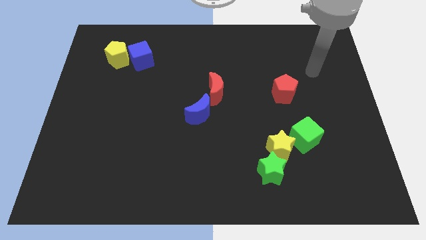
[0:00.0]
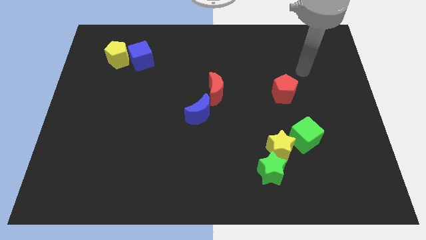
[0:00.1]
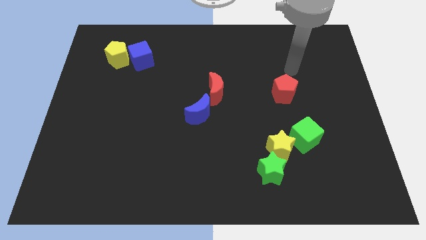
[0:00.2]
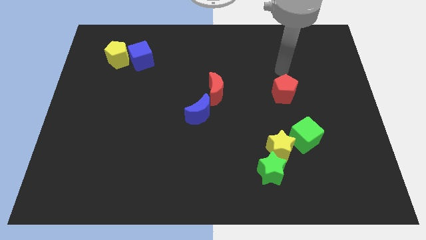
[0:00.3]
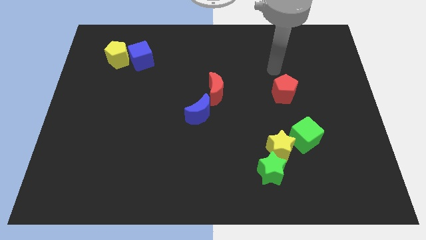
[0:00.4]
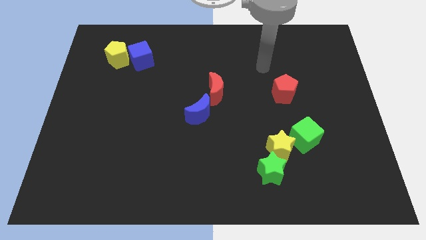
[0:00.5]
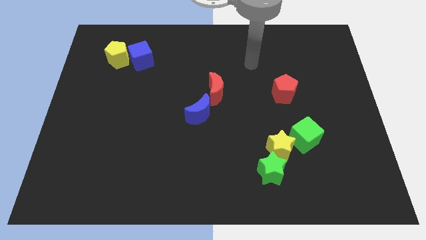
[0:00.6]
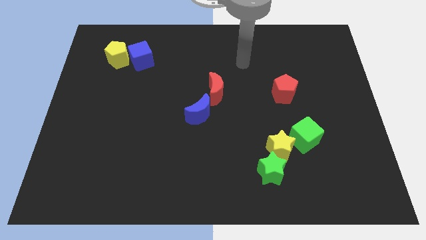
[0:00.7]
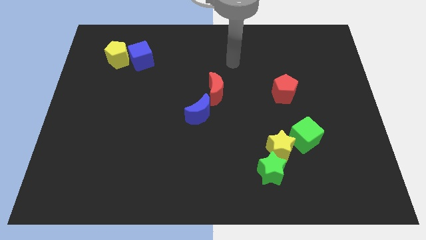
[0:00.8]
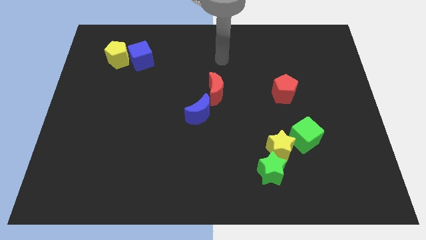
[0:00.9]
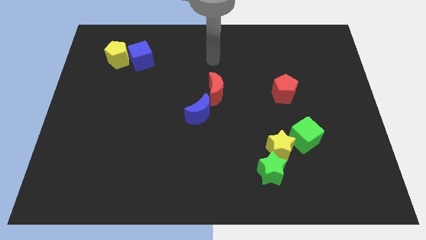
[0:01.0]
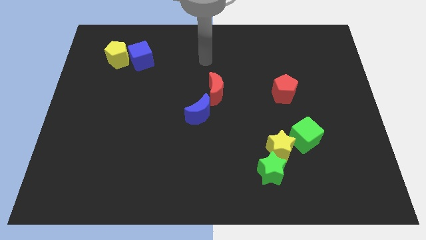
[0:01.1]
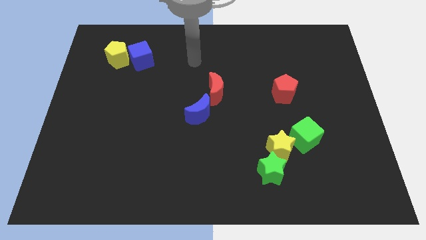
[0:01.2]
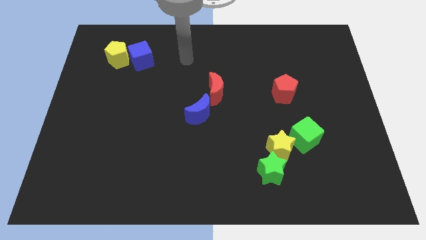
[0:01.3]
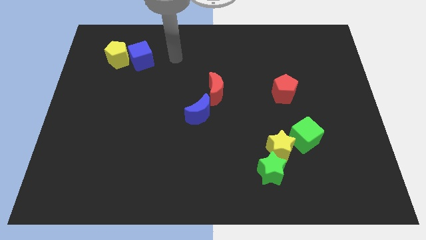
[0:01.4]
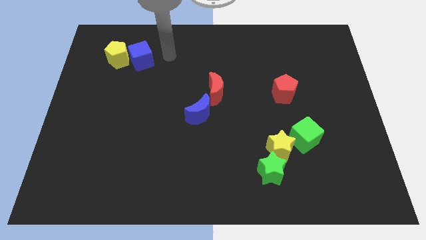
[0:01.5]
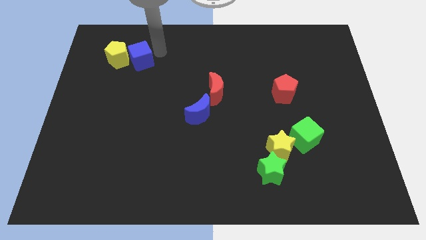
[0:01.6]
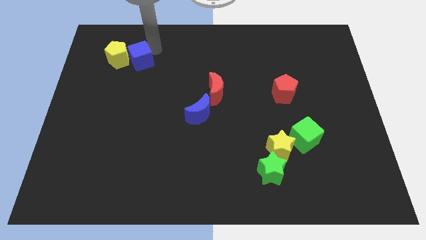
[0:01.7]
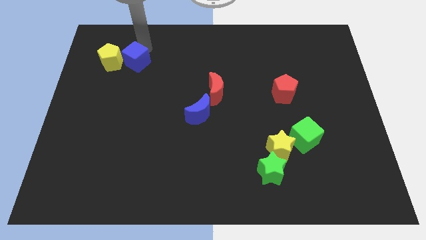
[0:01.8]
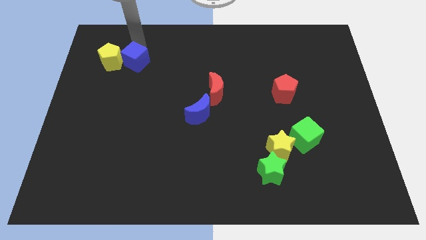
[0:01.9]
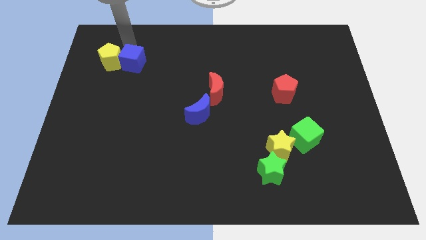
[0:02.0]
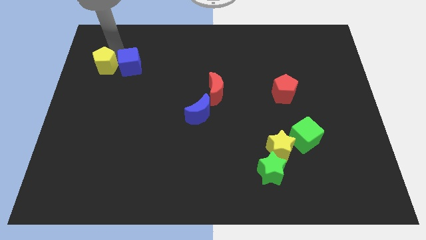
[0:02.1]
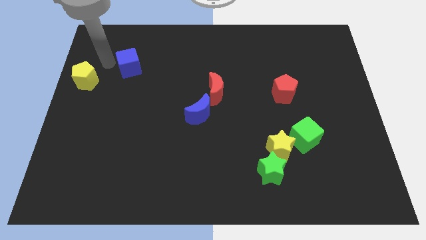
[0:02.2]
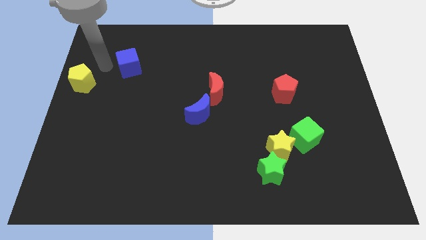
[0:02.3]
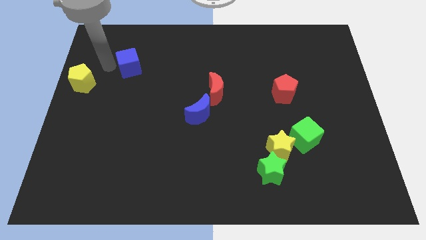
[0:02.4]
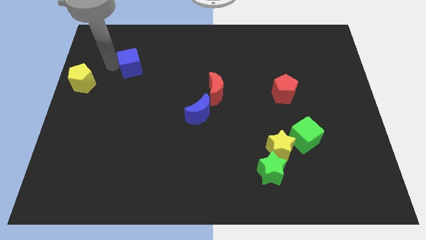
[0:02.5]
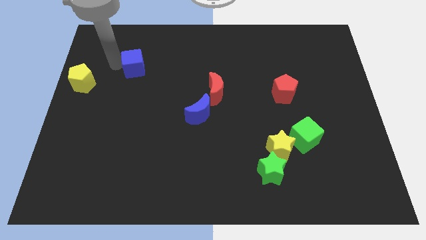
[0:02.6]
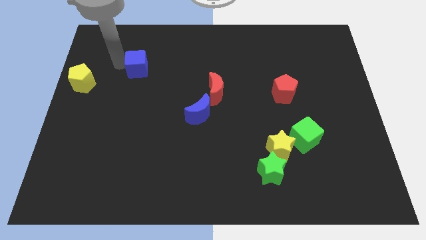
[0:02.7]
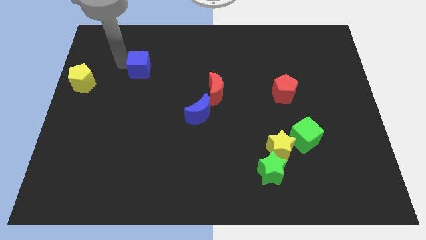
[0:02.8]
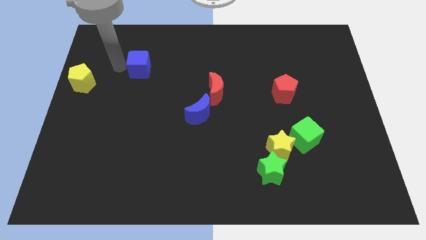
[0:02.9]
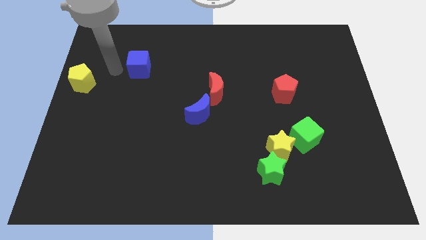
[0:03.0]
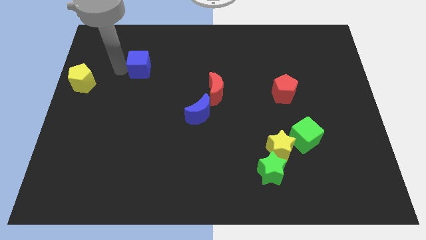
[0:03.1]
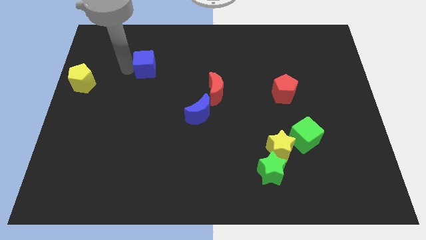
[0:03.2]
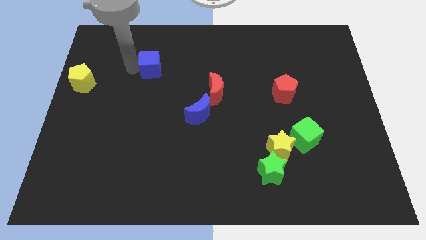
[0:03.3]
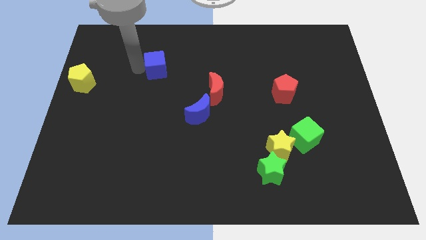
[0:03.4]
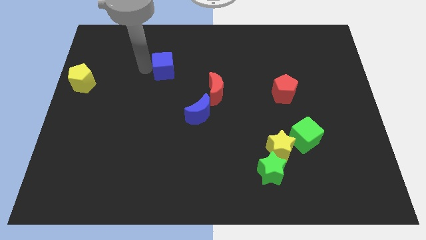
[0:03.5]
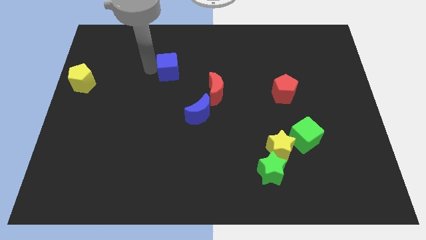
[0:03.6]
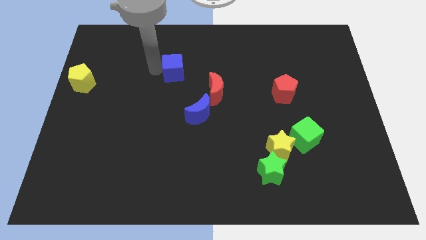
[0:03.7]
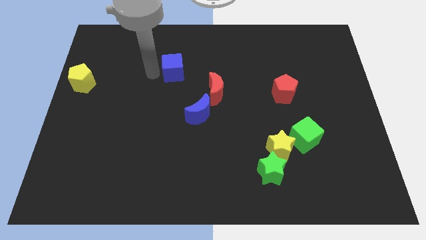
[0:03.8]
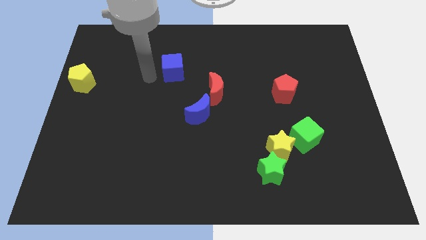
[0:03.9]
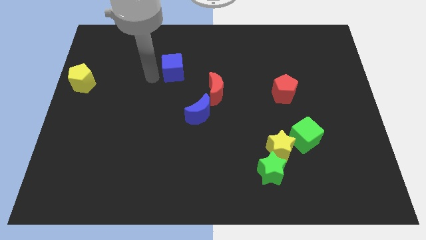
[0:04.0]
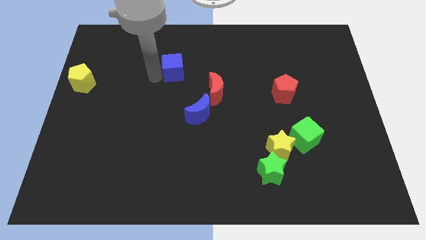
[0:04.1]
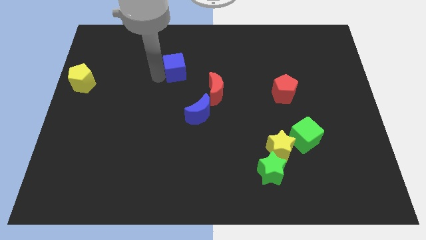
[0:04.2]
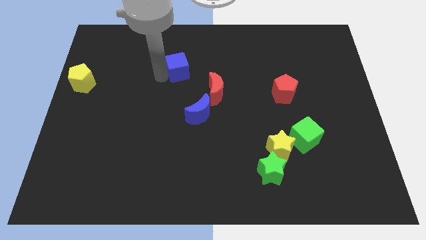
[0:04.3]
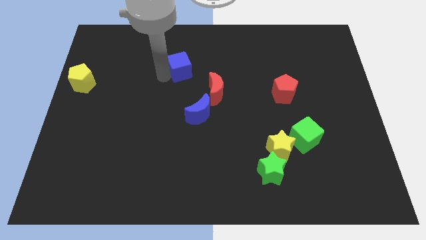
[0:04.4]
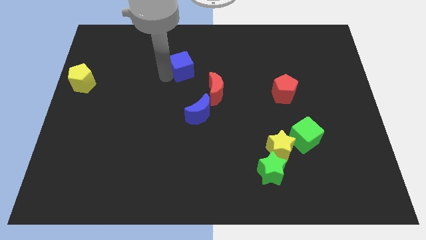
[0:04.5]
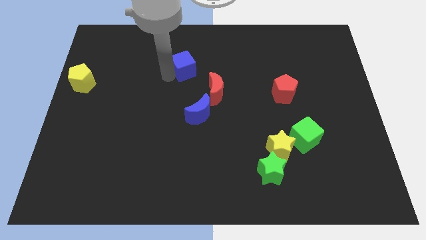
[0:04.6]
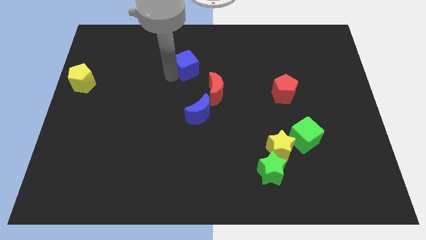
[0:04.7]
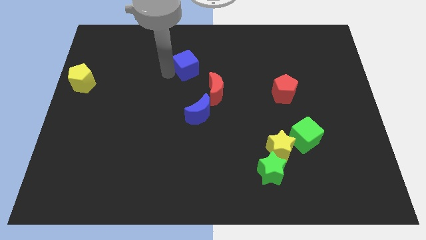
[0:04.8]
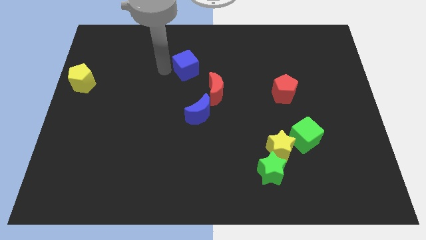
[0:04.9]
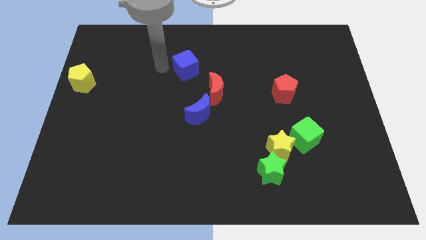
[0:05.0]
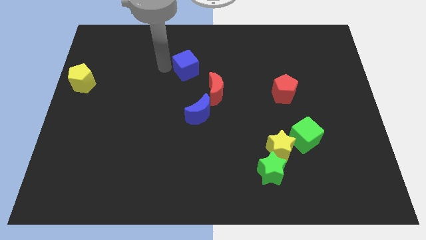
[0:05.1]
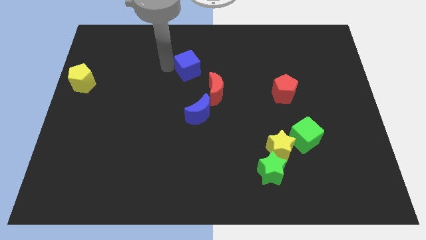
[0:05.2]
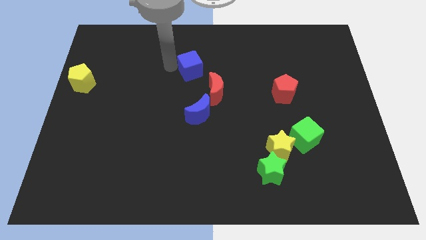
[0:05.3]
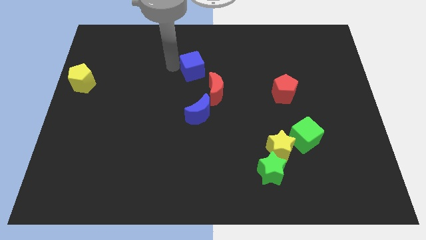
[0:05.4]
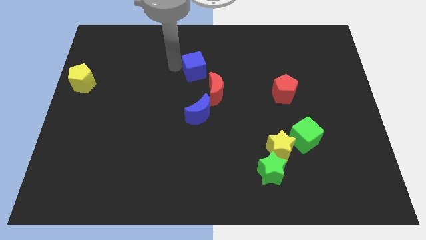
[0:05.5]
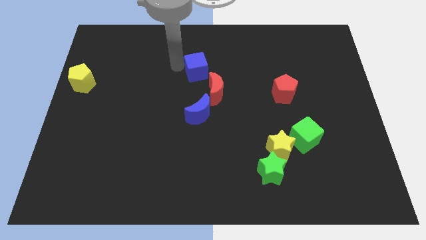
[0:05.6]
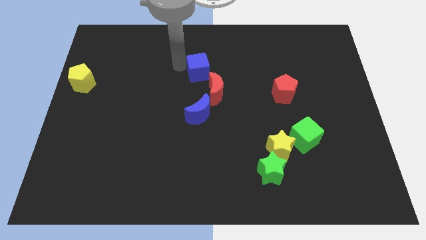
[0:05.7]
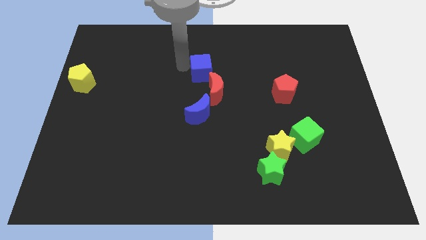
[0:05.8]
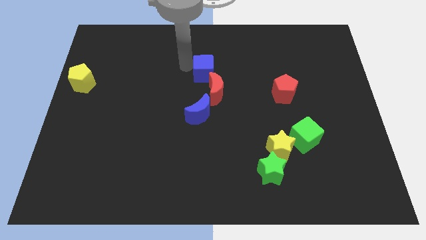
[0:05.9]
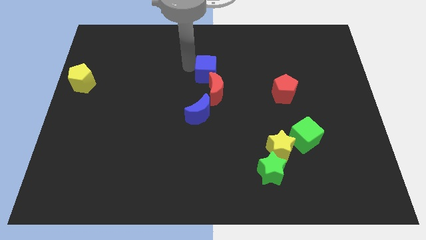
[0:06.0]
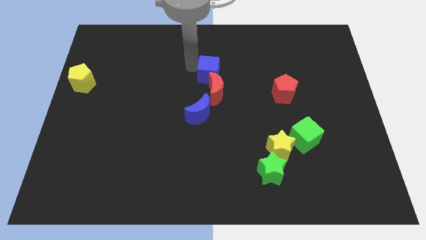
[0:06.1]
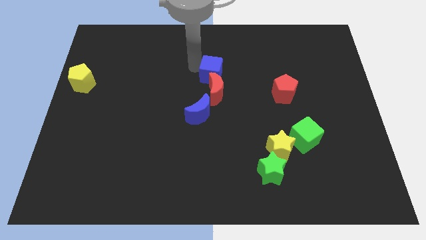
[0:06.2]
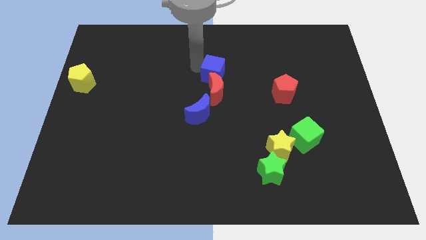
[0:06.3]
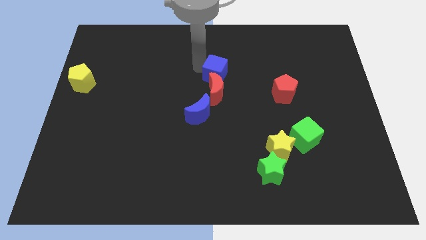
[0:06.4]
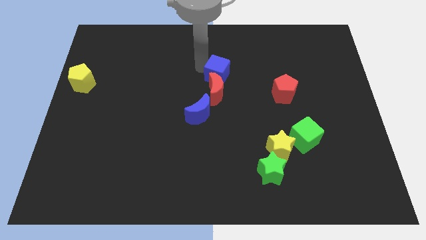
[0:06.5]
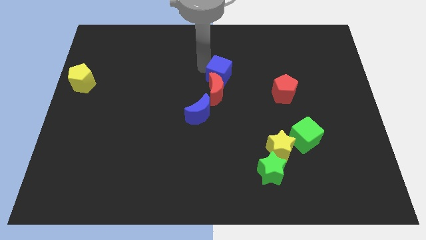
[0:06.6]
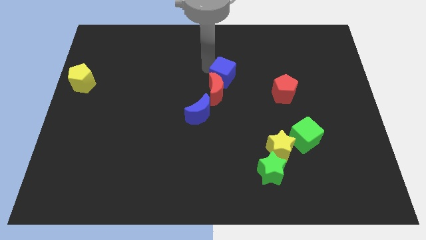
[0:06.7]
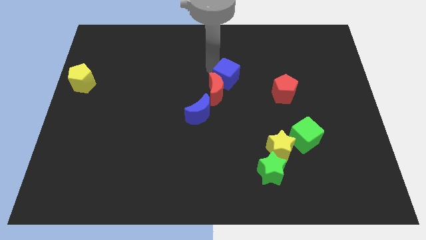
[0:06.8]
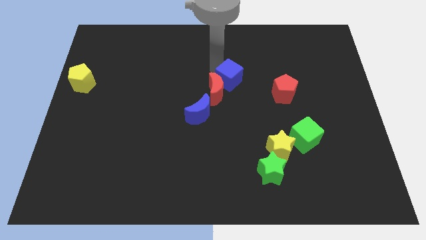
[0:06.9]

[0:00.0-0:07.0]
move the blue cube just right of the red moon
